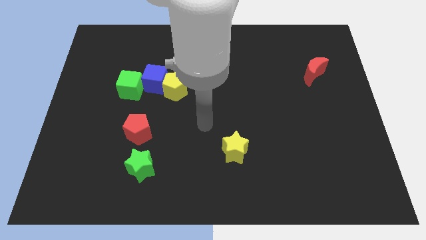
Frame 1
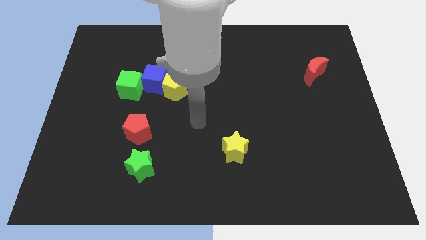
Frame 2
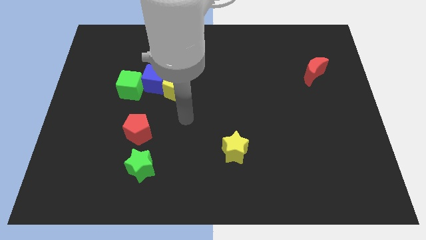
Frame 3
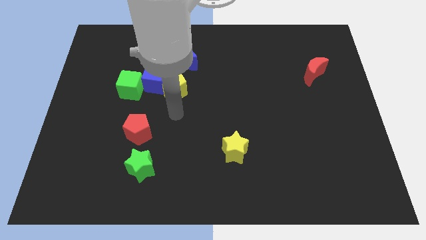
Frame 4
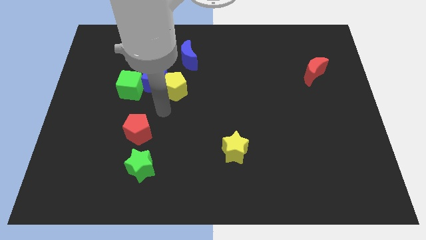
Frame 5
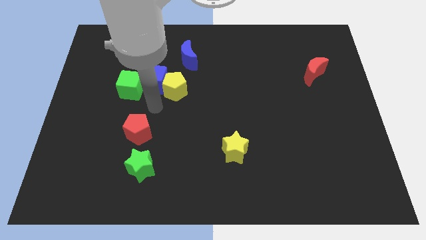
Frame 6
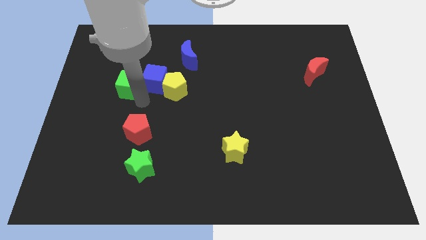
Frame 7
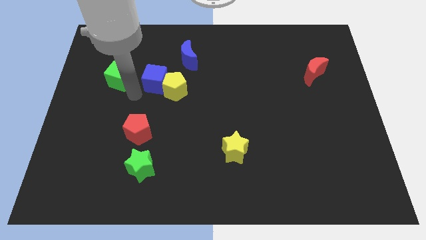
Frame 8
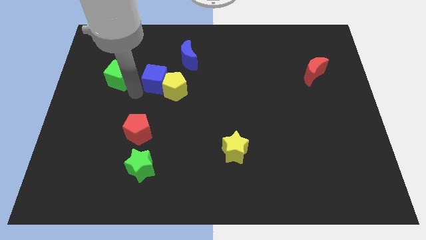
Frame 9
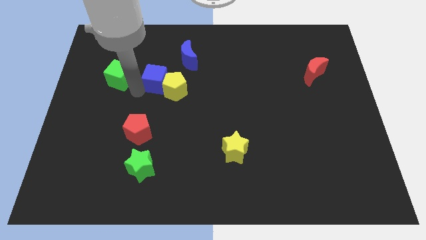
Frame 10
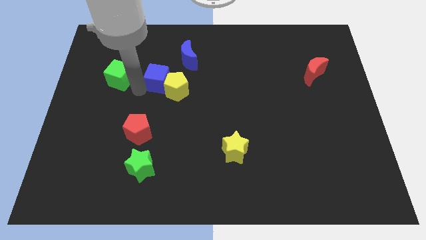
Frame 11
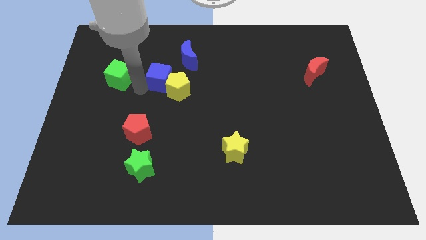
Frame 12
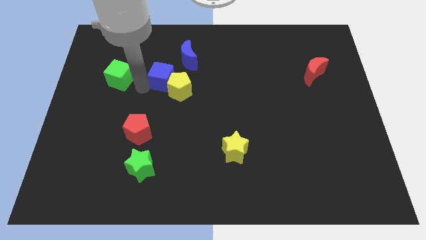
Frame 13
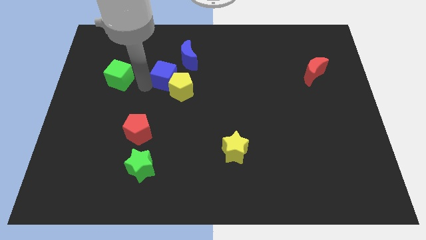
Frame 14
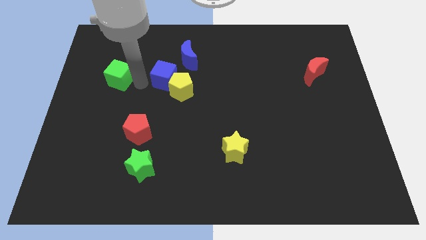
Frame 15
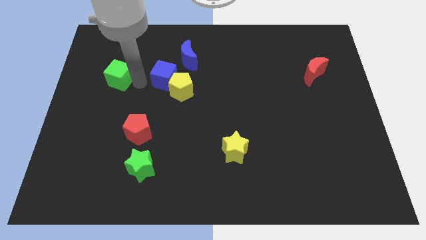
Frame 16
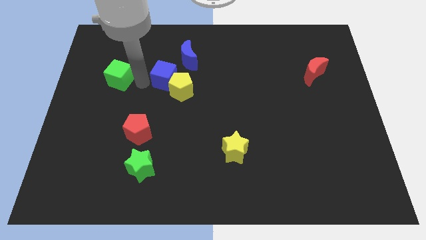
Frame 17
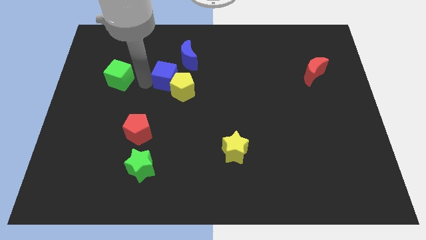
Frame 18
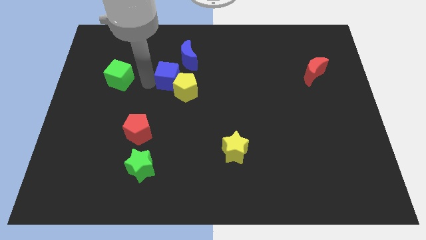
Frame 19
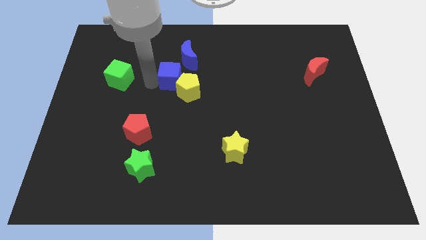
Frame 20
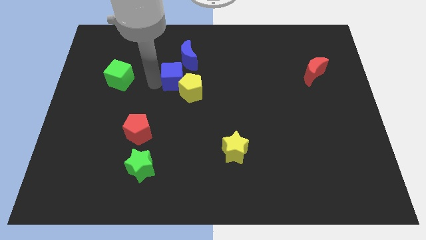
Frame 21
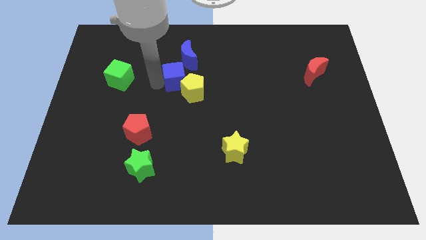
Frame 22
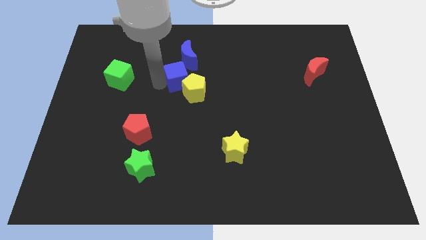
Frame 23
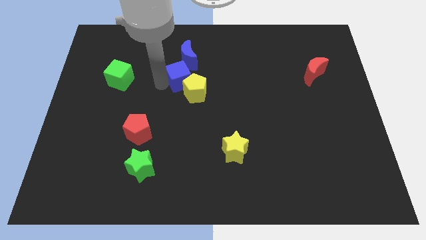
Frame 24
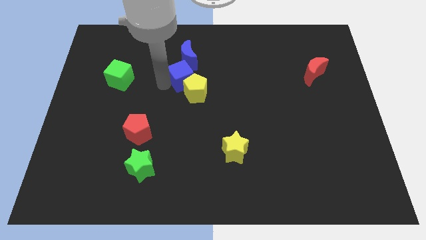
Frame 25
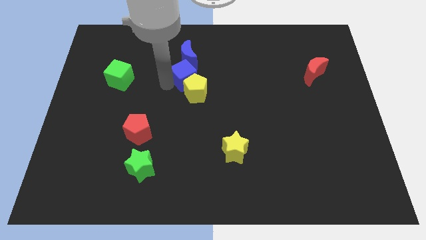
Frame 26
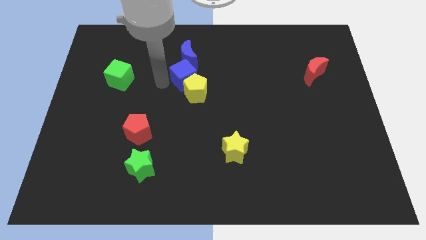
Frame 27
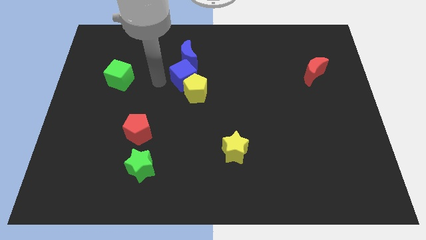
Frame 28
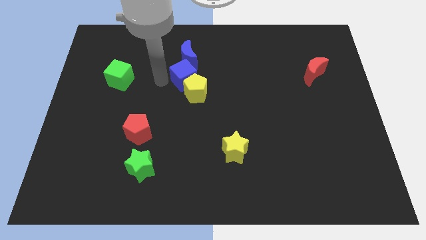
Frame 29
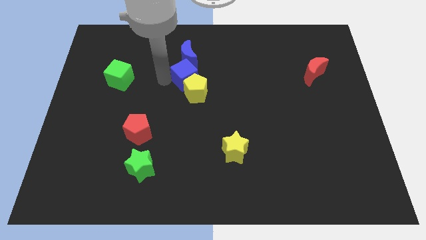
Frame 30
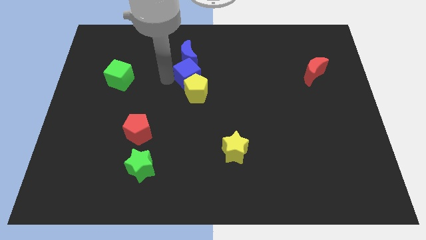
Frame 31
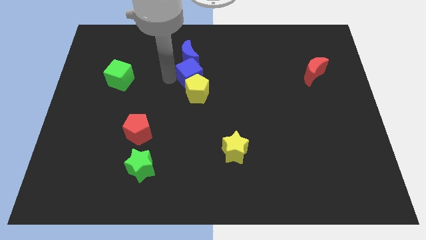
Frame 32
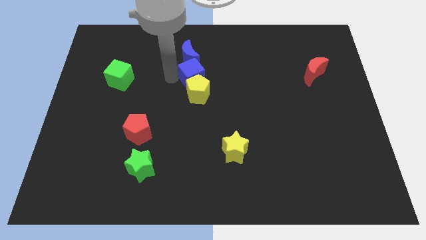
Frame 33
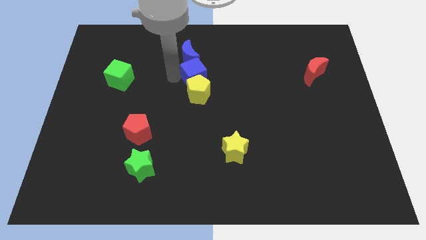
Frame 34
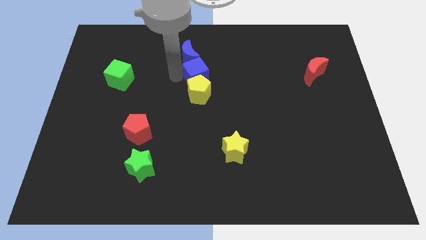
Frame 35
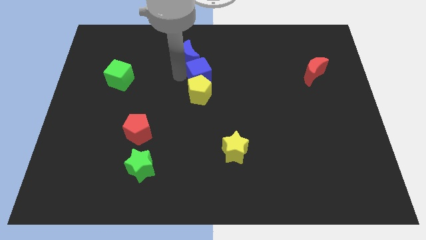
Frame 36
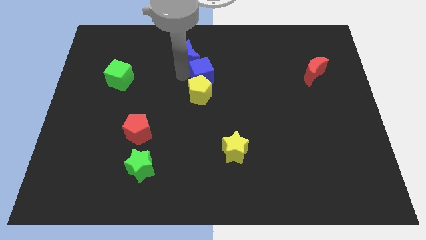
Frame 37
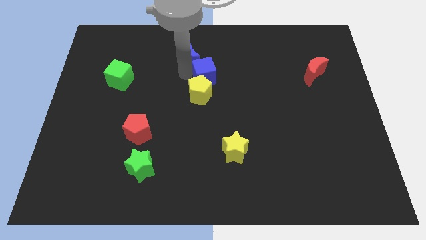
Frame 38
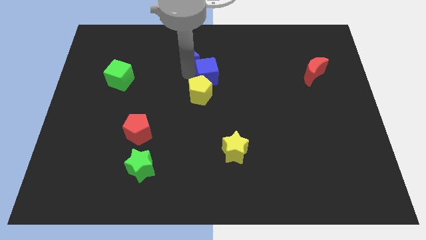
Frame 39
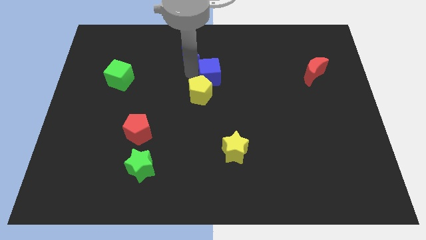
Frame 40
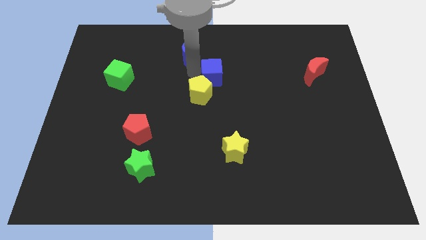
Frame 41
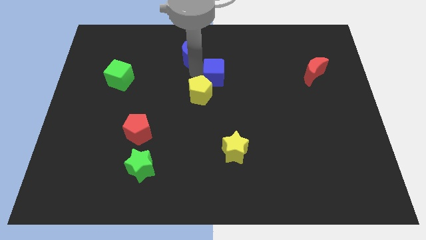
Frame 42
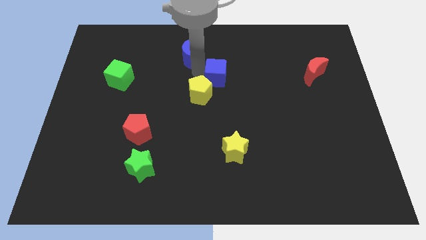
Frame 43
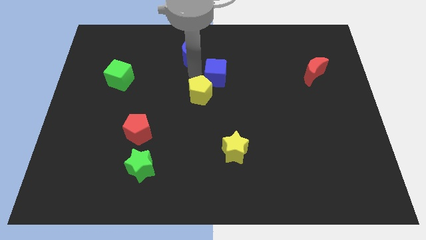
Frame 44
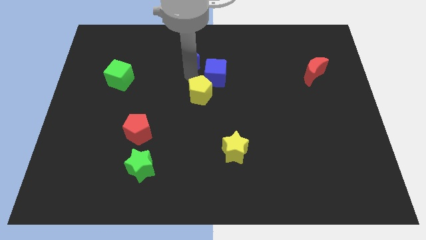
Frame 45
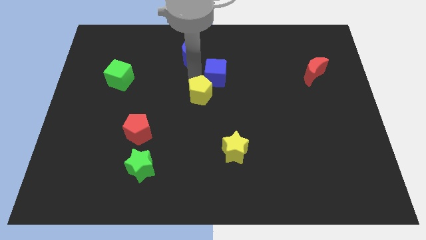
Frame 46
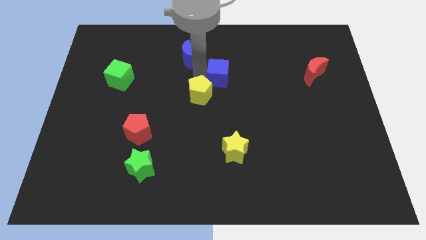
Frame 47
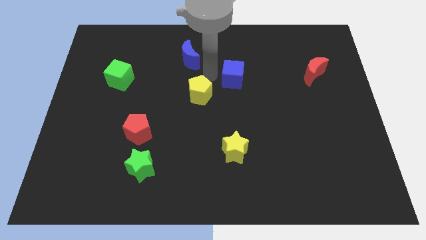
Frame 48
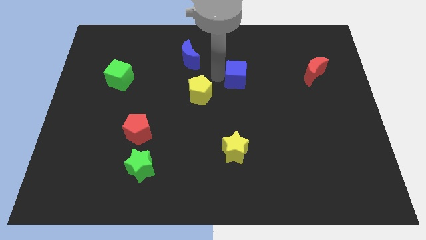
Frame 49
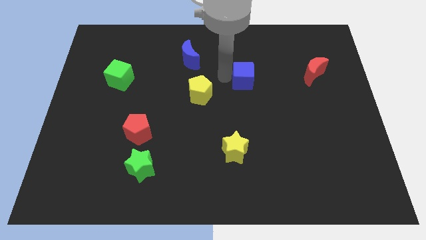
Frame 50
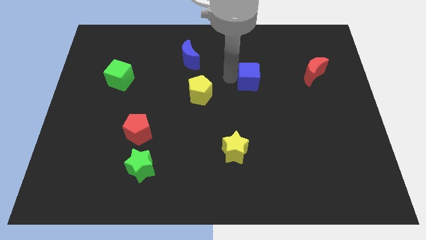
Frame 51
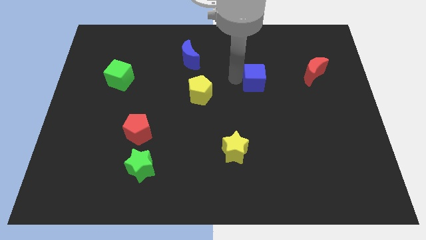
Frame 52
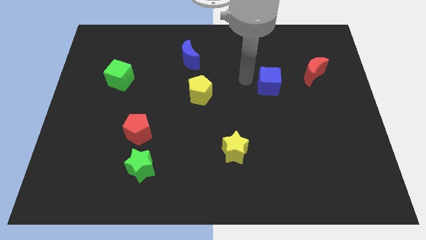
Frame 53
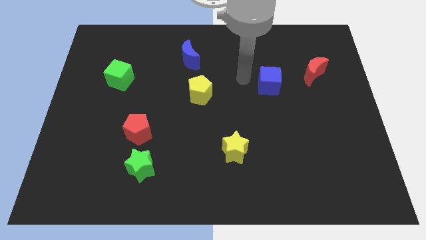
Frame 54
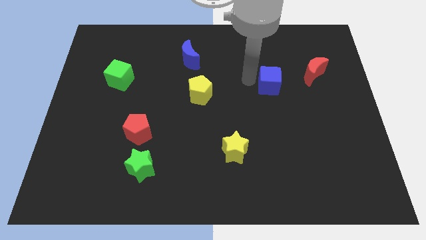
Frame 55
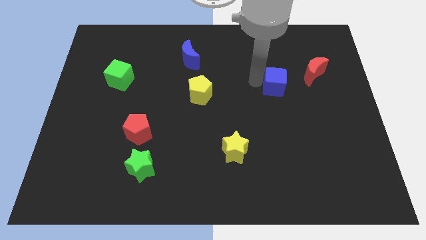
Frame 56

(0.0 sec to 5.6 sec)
slide the blue cube to the bottom left side of the red moon

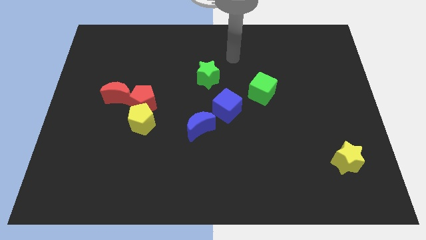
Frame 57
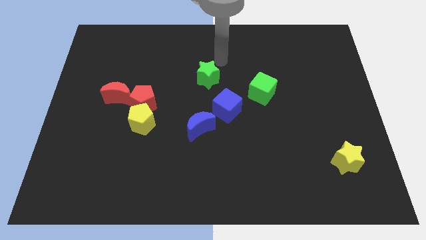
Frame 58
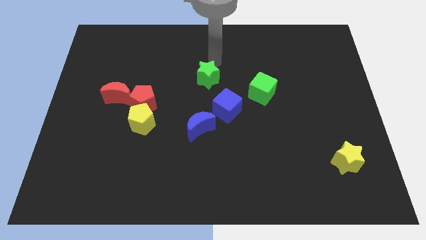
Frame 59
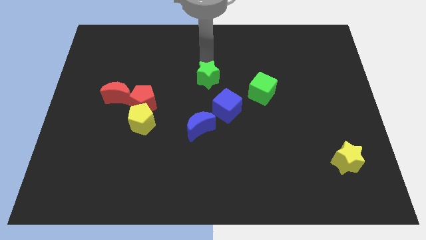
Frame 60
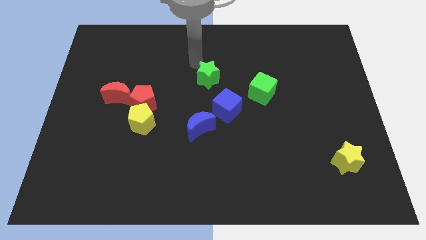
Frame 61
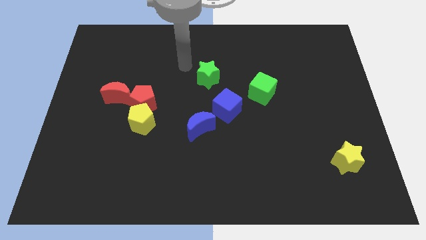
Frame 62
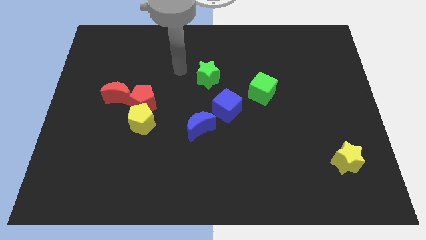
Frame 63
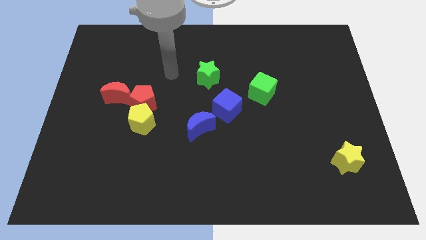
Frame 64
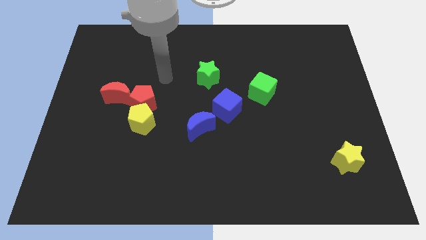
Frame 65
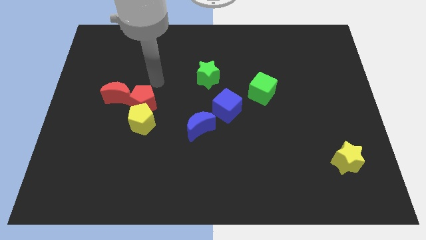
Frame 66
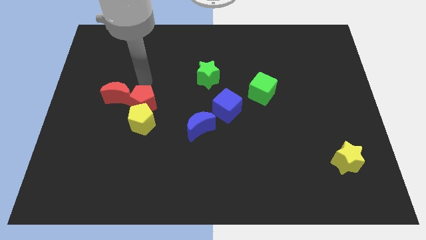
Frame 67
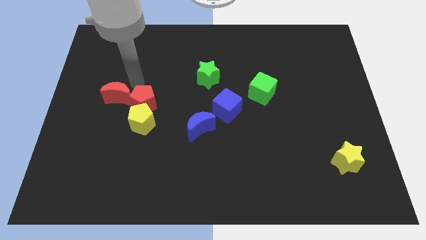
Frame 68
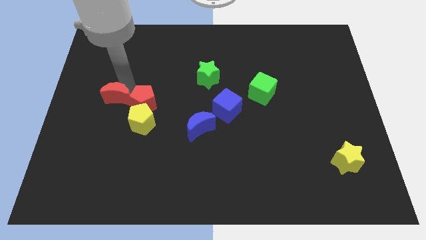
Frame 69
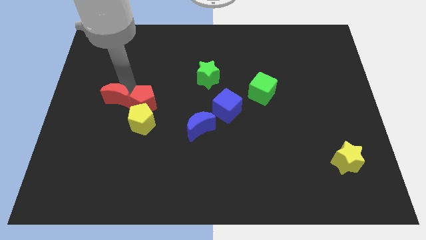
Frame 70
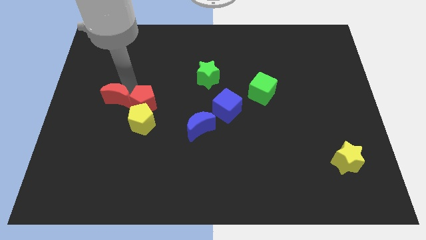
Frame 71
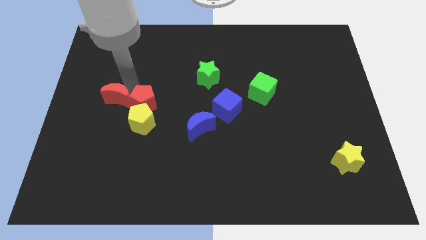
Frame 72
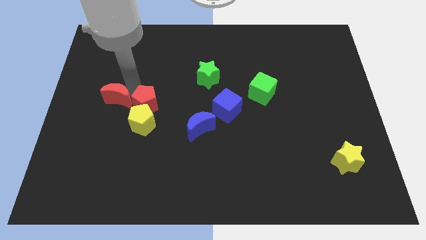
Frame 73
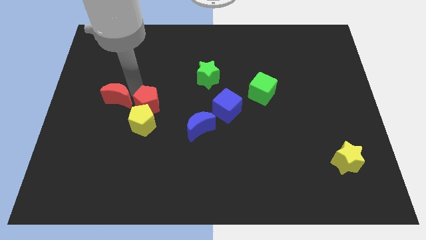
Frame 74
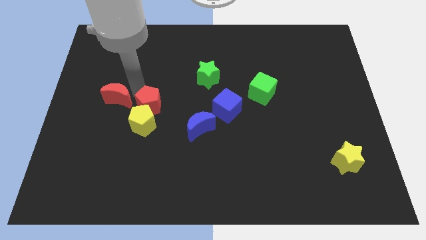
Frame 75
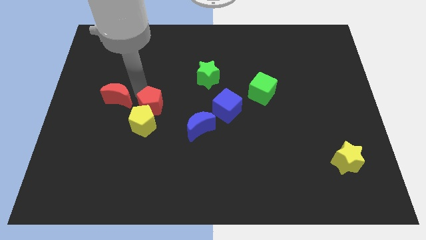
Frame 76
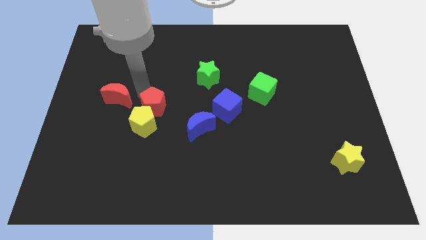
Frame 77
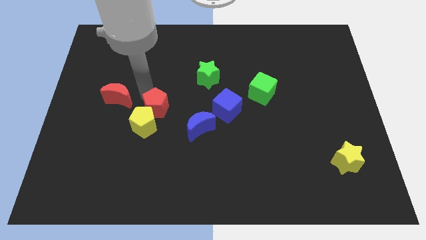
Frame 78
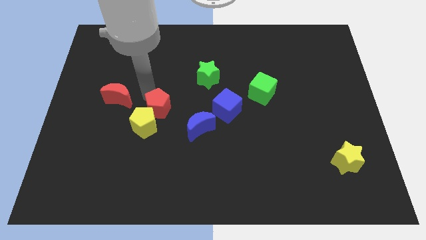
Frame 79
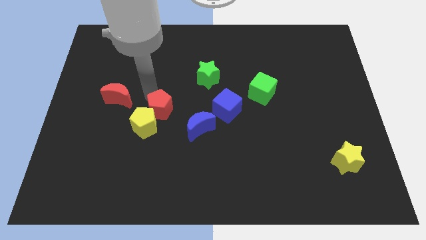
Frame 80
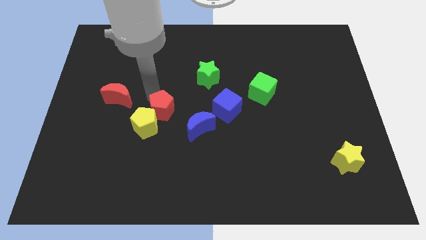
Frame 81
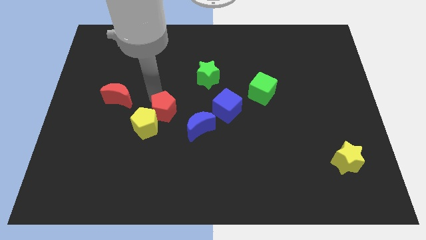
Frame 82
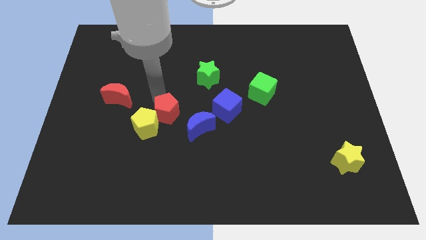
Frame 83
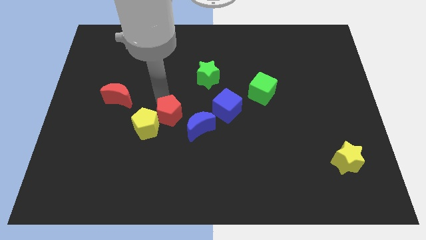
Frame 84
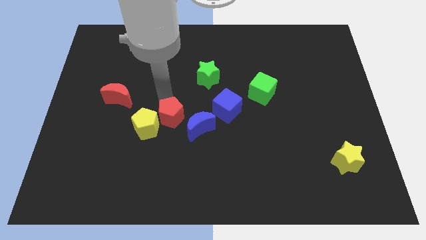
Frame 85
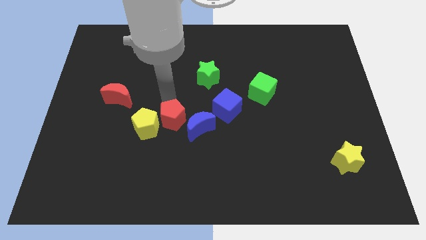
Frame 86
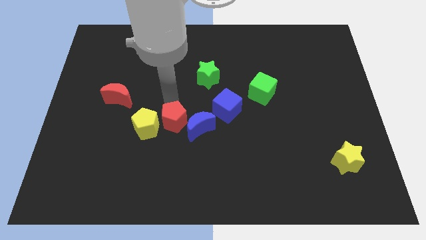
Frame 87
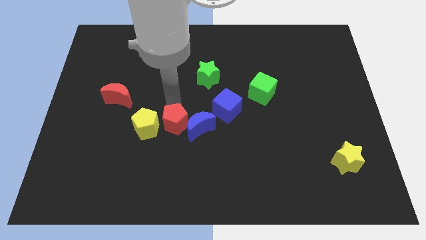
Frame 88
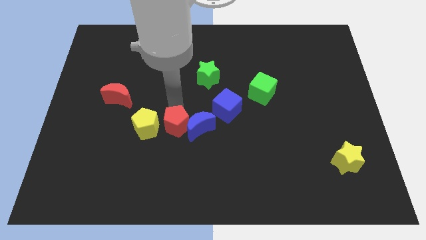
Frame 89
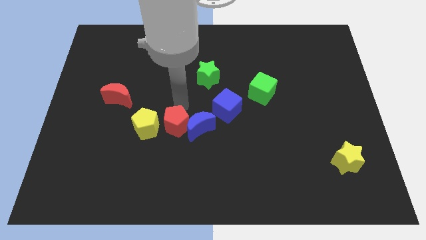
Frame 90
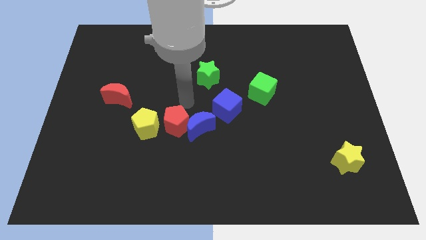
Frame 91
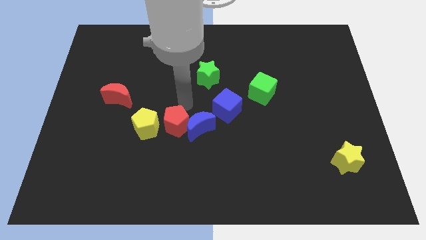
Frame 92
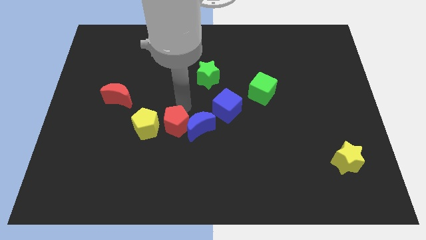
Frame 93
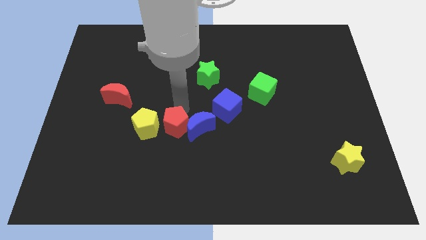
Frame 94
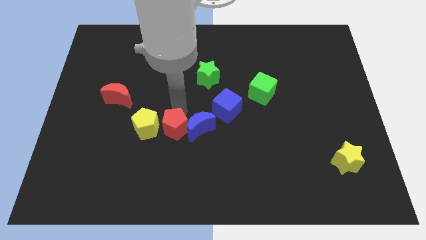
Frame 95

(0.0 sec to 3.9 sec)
push the red pentagon to the bottom right of the yellow pentagon
